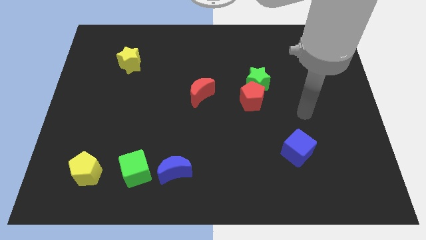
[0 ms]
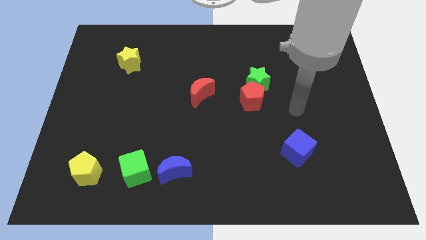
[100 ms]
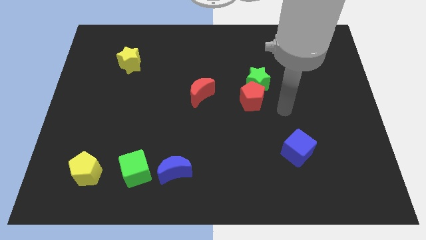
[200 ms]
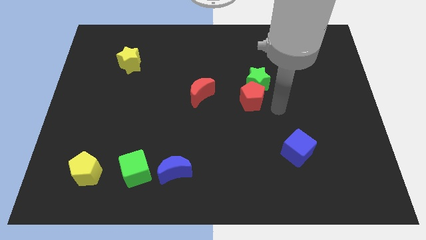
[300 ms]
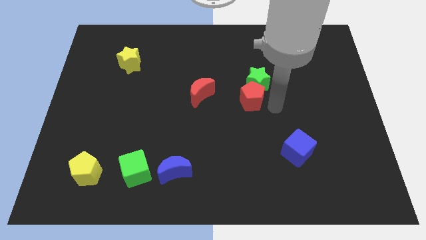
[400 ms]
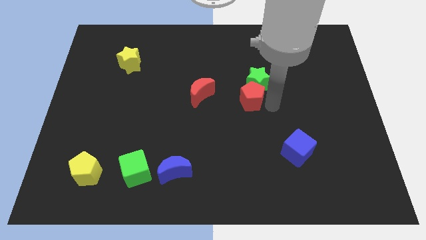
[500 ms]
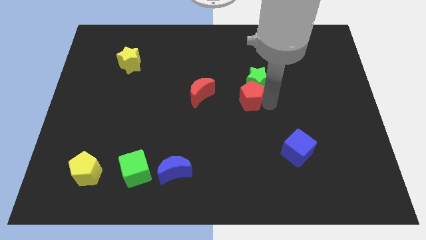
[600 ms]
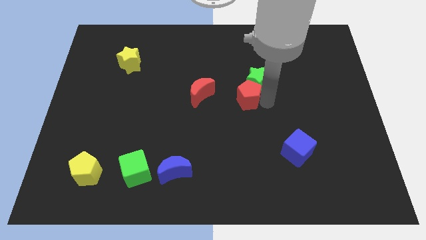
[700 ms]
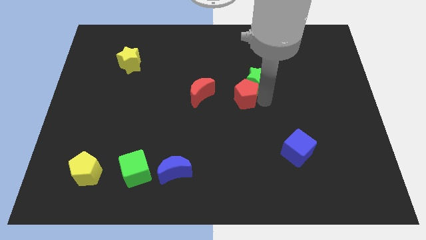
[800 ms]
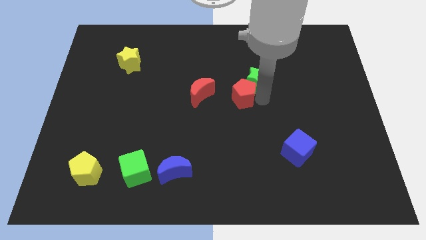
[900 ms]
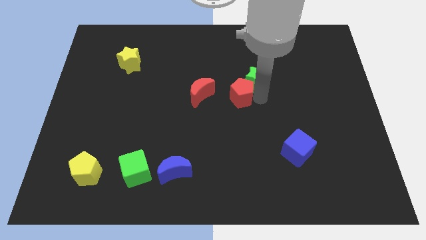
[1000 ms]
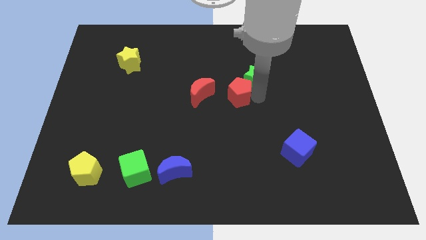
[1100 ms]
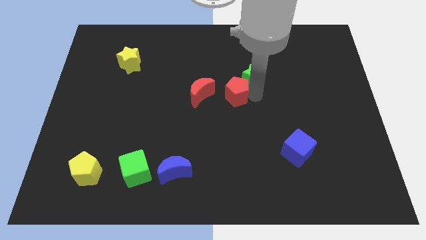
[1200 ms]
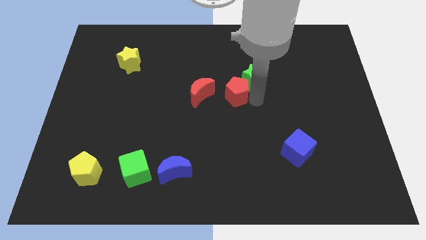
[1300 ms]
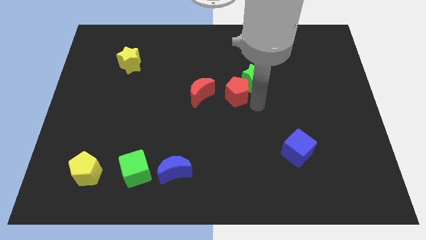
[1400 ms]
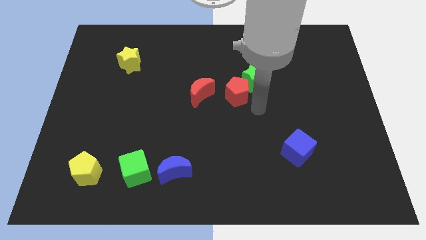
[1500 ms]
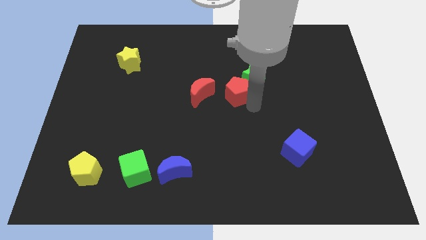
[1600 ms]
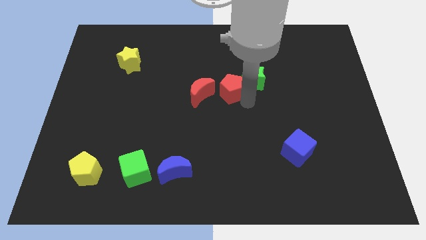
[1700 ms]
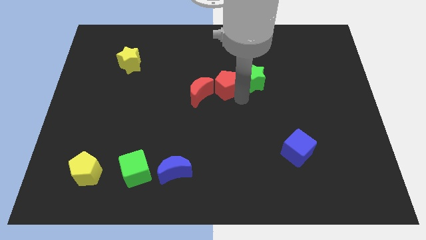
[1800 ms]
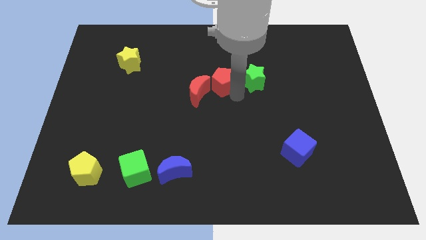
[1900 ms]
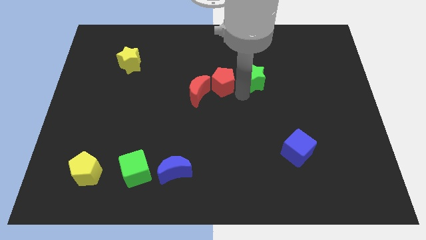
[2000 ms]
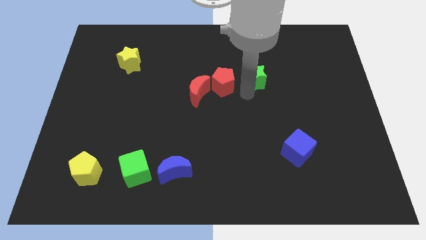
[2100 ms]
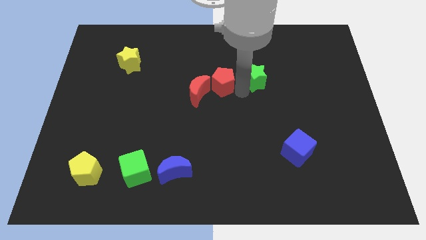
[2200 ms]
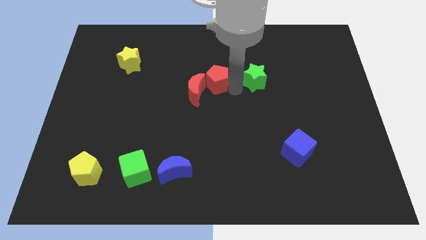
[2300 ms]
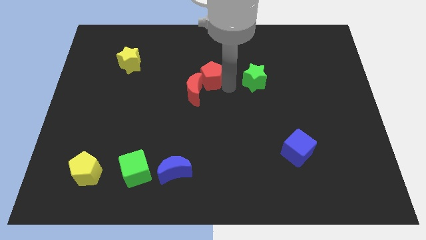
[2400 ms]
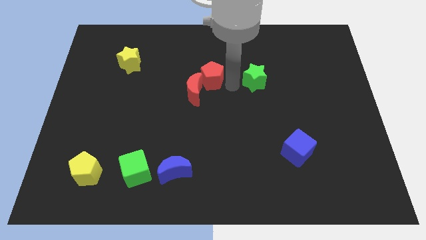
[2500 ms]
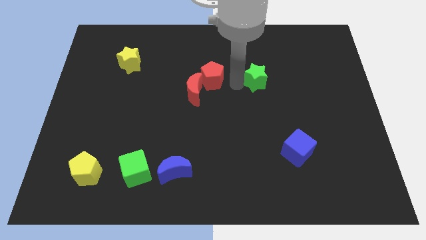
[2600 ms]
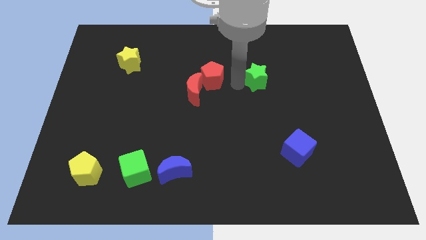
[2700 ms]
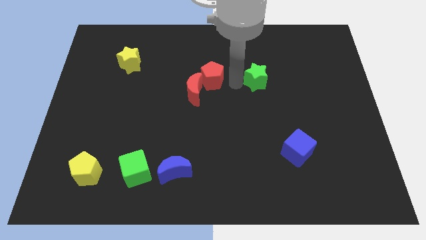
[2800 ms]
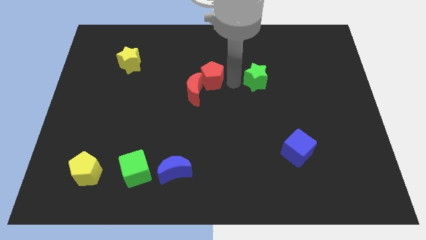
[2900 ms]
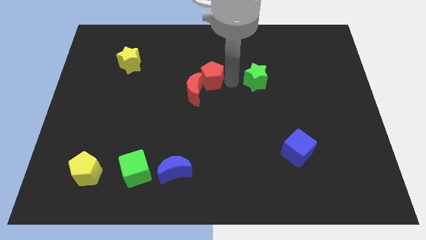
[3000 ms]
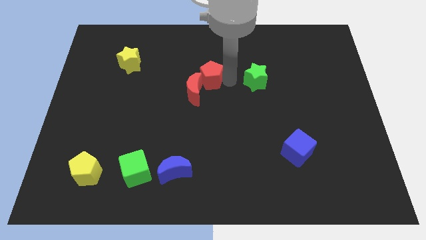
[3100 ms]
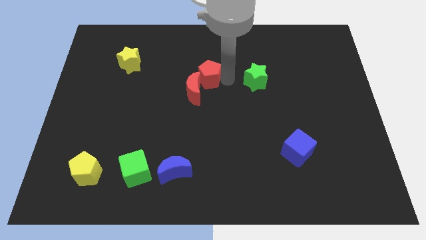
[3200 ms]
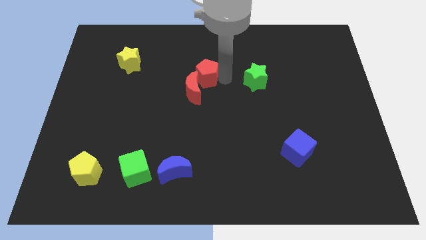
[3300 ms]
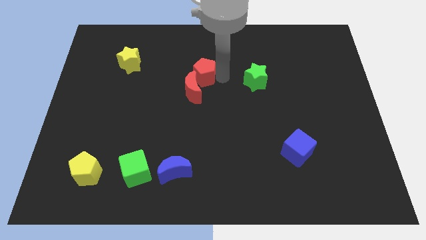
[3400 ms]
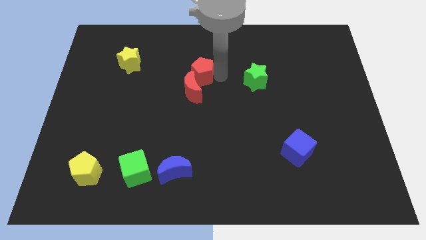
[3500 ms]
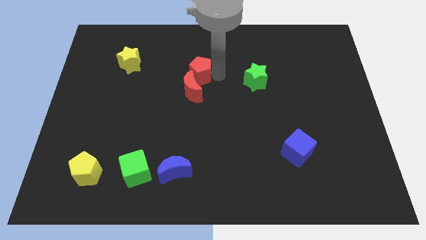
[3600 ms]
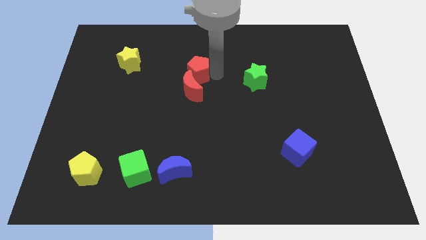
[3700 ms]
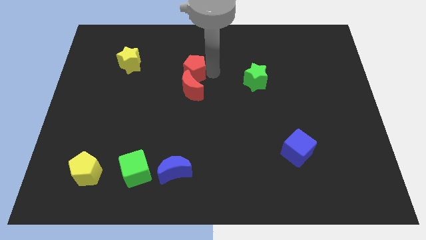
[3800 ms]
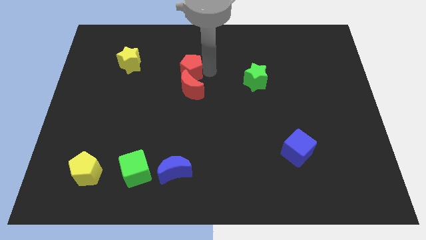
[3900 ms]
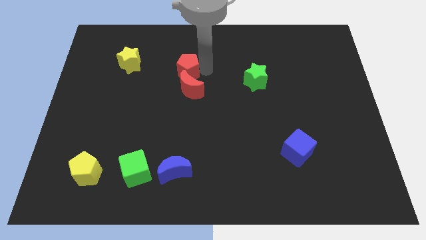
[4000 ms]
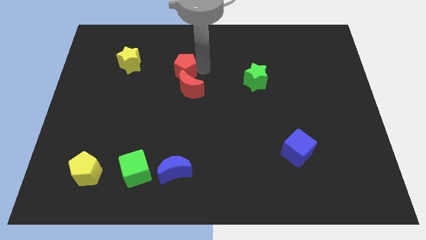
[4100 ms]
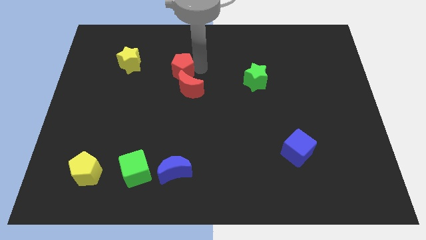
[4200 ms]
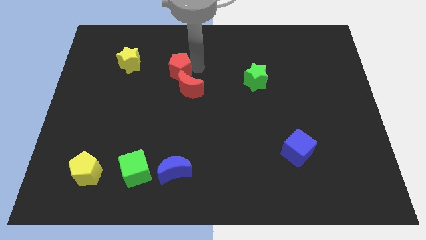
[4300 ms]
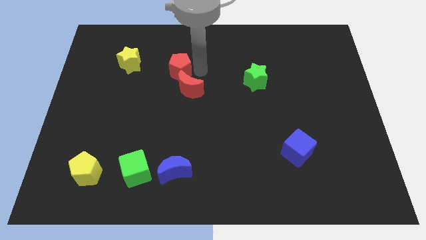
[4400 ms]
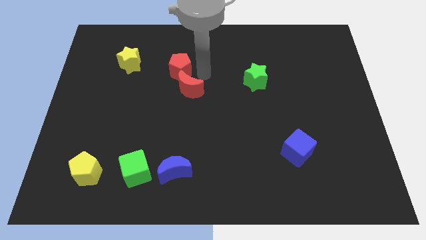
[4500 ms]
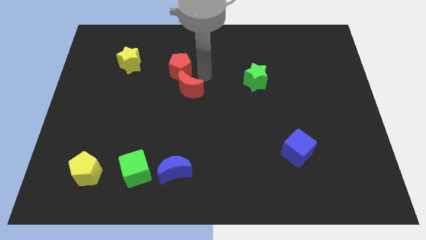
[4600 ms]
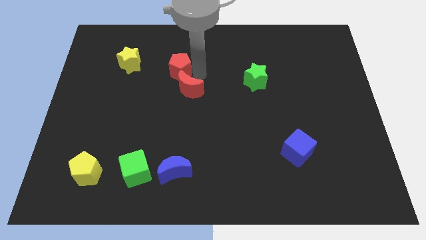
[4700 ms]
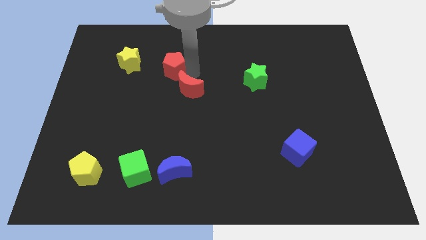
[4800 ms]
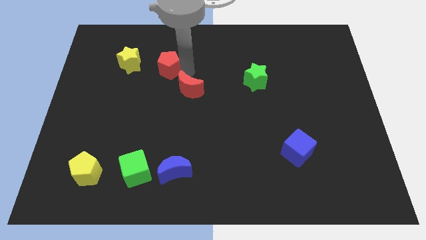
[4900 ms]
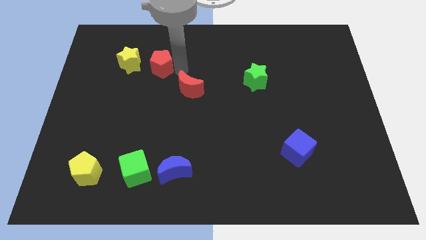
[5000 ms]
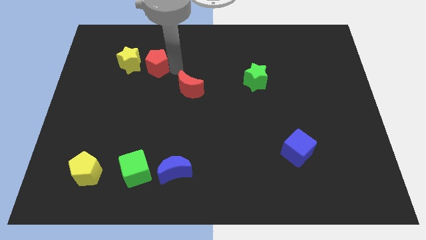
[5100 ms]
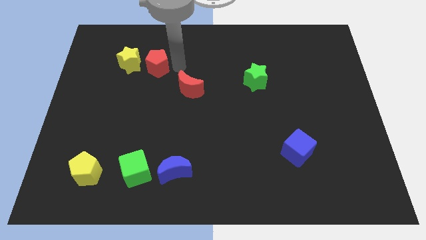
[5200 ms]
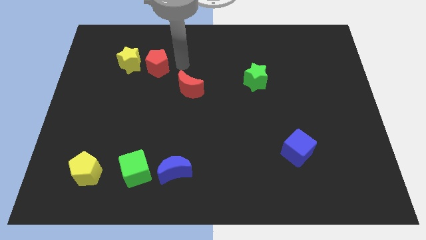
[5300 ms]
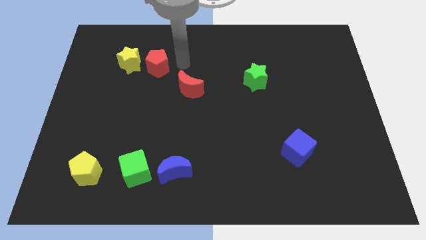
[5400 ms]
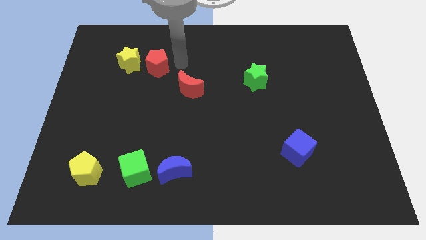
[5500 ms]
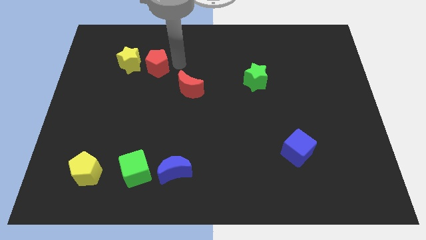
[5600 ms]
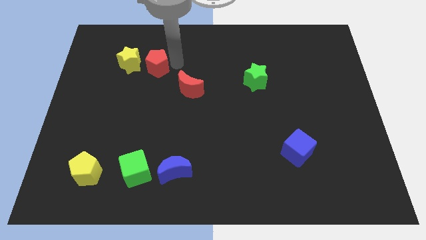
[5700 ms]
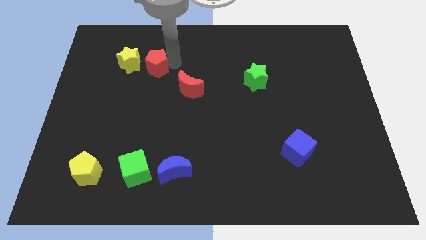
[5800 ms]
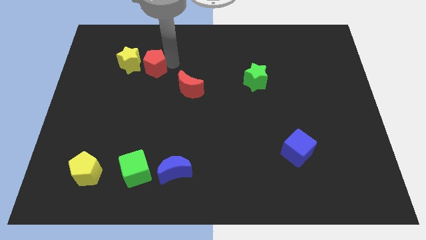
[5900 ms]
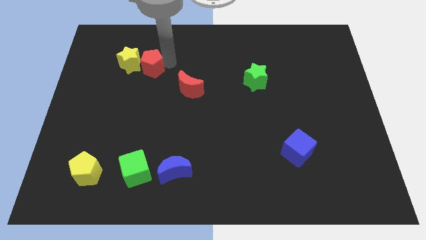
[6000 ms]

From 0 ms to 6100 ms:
push the red pentagon to the yellow star
